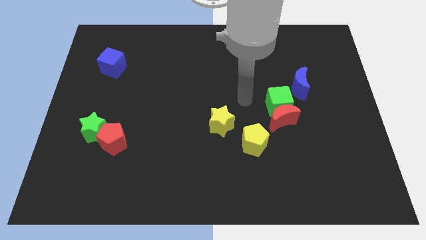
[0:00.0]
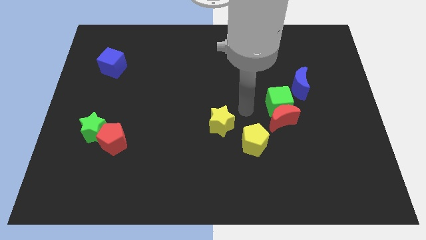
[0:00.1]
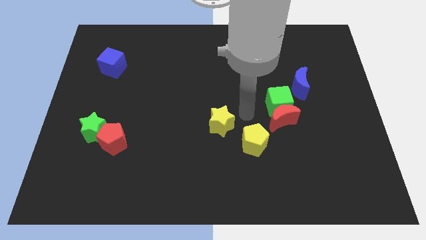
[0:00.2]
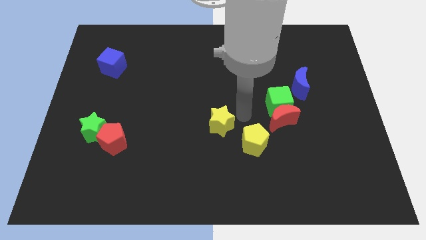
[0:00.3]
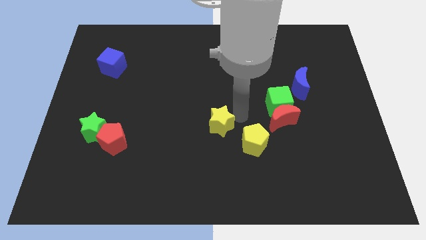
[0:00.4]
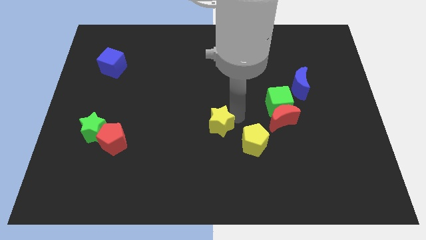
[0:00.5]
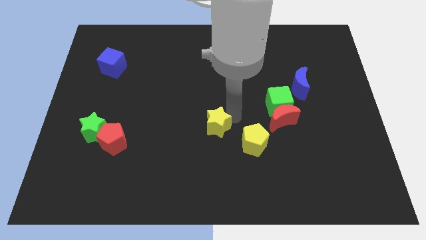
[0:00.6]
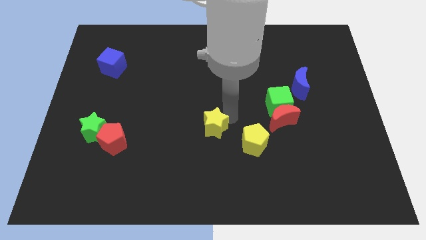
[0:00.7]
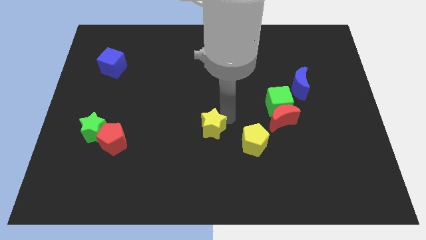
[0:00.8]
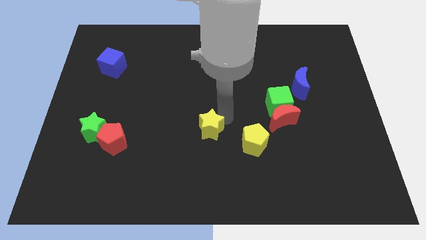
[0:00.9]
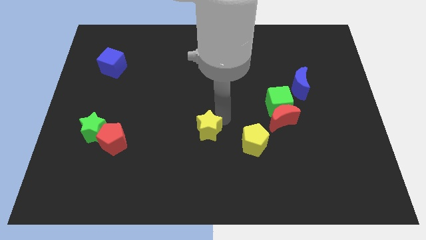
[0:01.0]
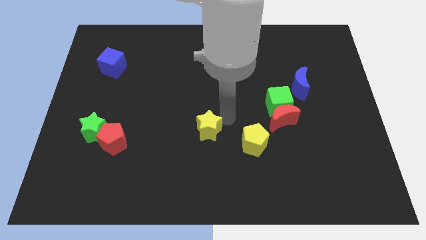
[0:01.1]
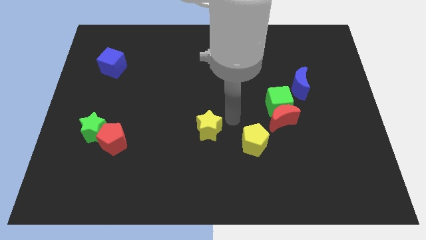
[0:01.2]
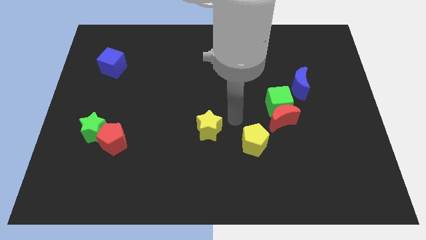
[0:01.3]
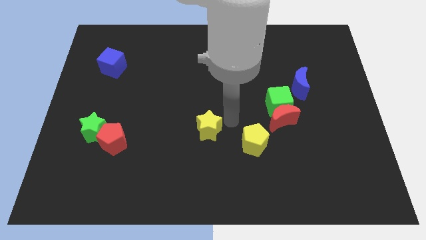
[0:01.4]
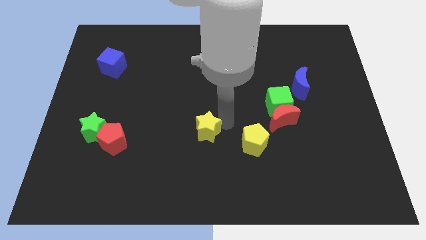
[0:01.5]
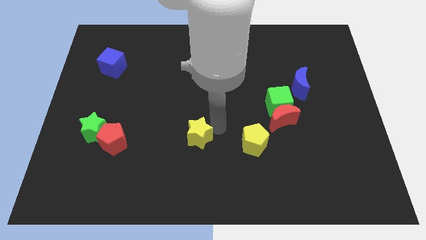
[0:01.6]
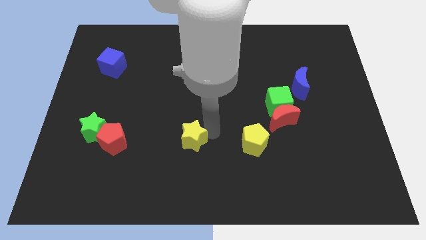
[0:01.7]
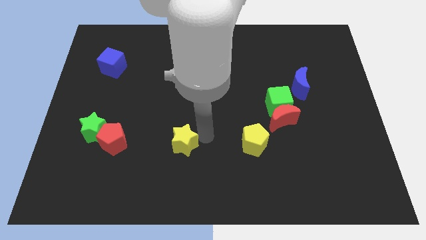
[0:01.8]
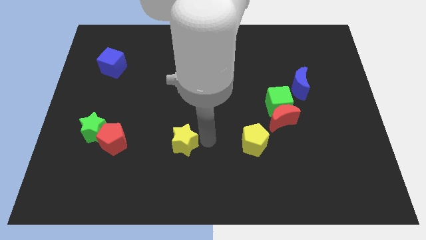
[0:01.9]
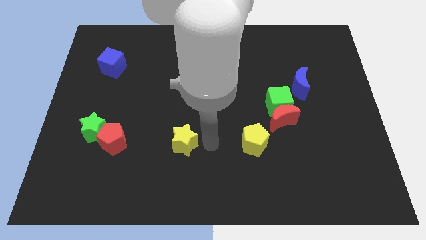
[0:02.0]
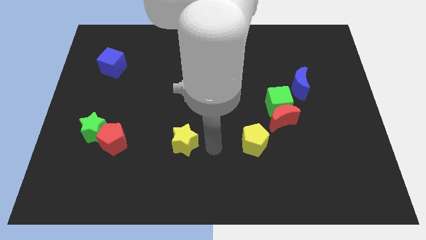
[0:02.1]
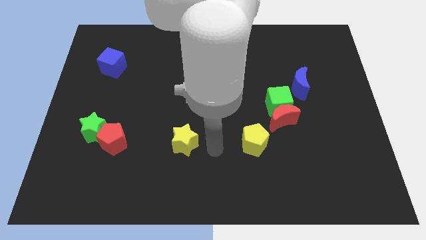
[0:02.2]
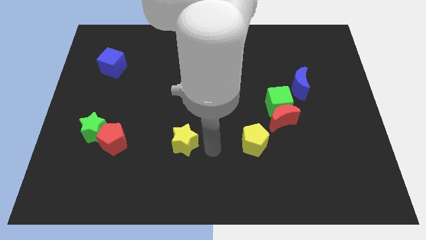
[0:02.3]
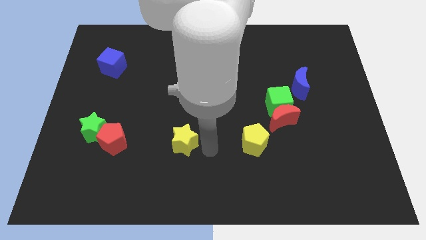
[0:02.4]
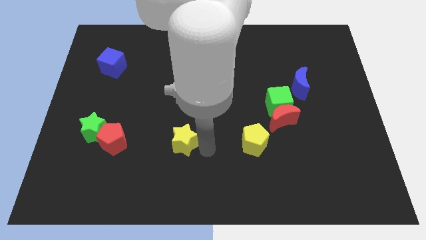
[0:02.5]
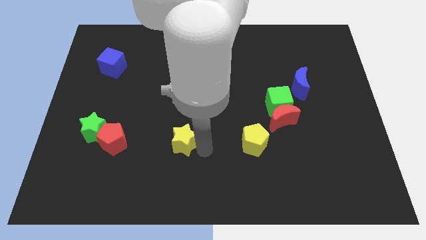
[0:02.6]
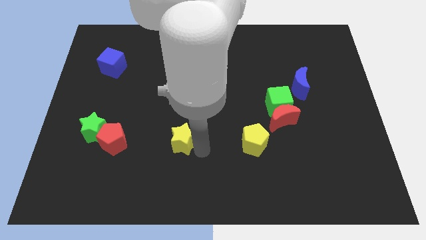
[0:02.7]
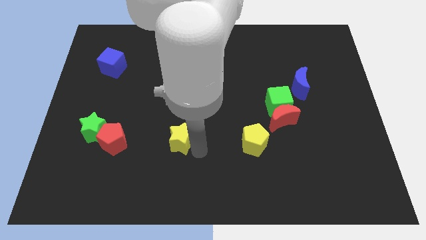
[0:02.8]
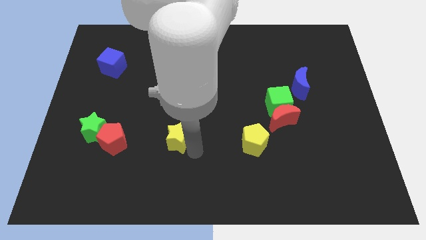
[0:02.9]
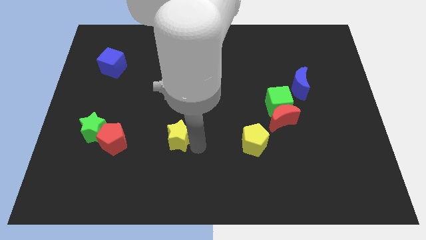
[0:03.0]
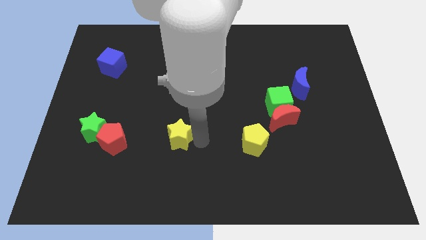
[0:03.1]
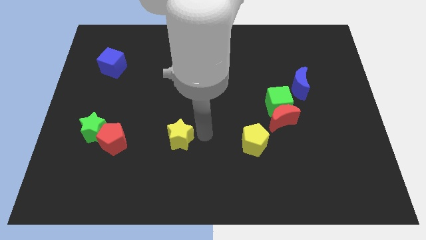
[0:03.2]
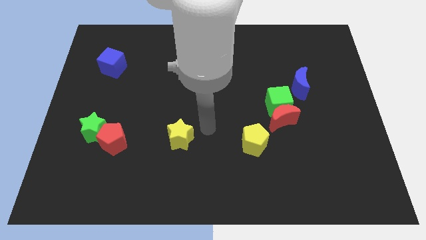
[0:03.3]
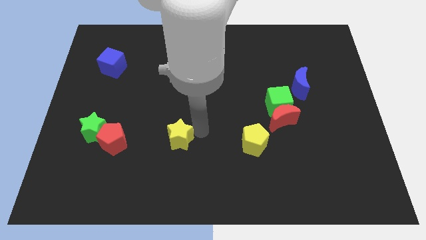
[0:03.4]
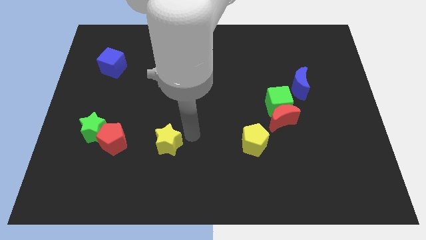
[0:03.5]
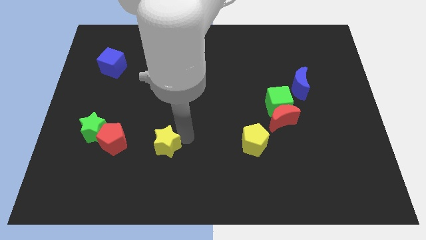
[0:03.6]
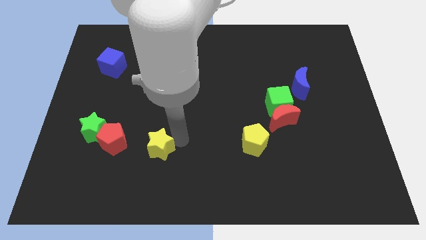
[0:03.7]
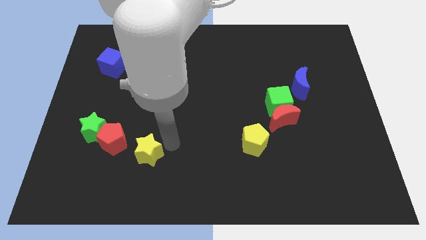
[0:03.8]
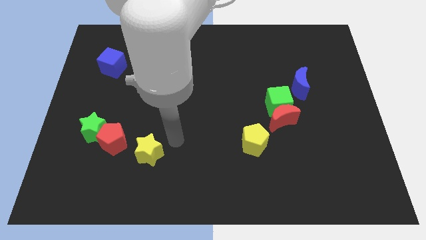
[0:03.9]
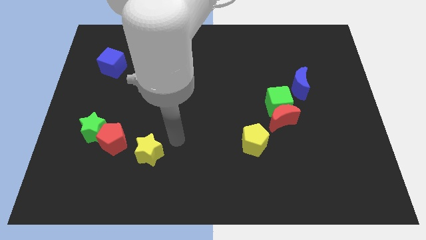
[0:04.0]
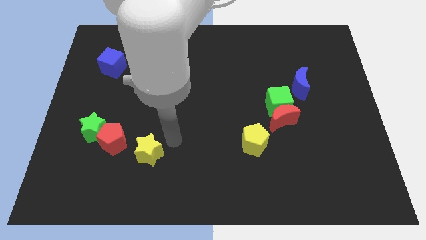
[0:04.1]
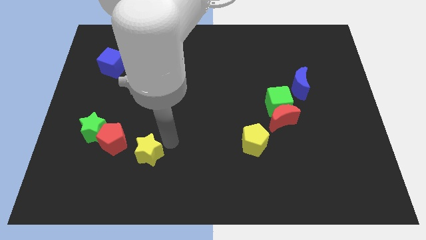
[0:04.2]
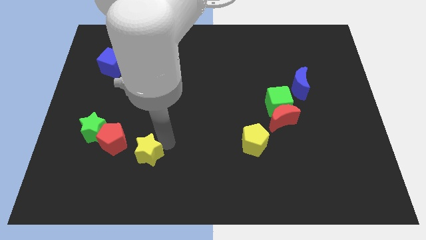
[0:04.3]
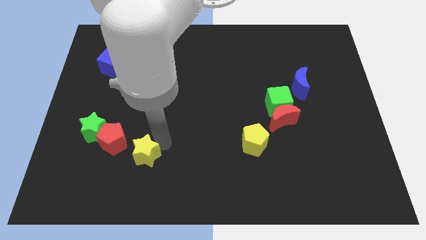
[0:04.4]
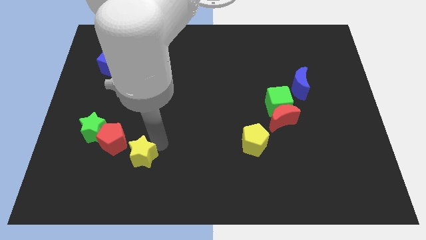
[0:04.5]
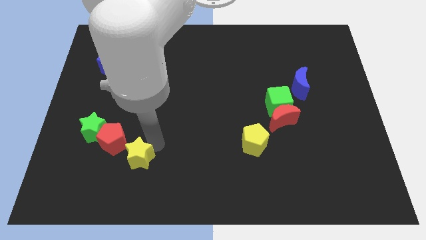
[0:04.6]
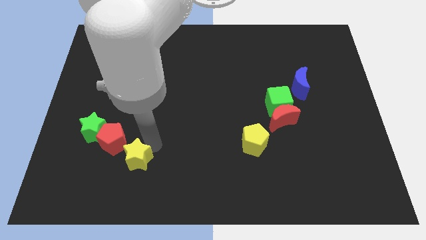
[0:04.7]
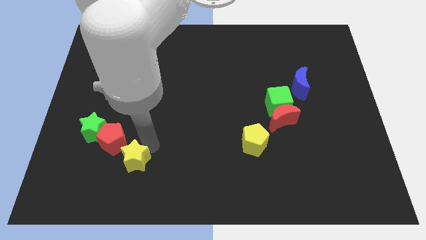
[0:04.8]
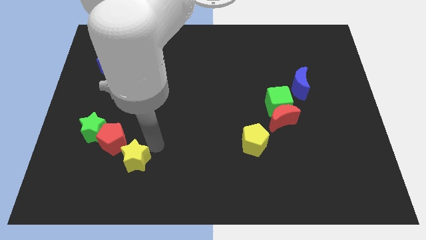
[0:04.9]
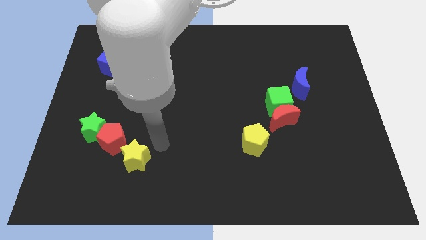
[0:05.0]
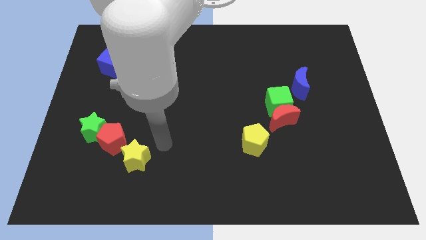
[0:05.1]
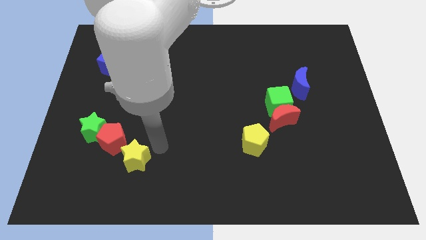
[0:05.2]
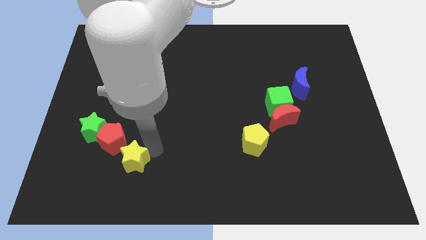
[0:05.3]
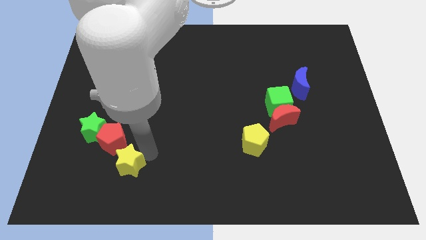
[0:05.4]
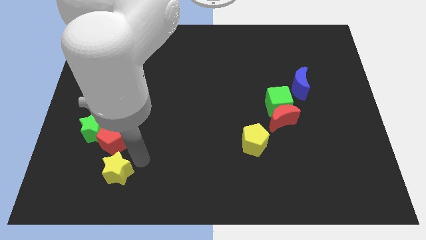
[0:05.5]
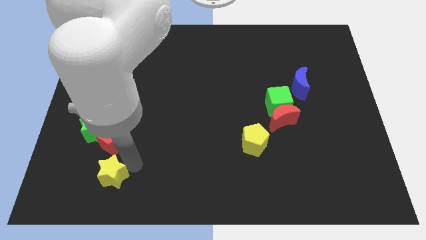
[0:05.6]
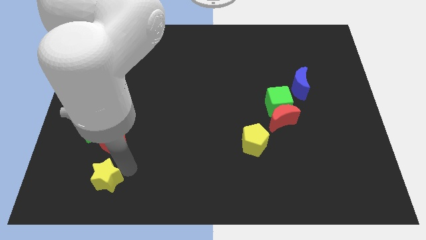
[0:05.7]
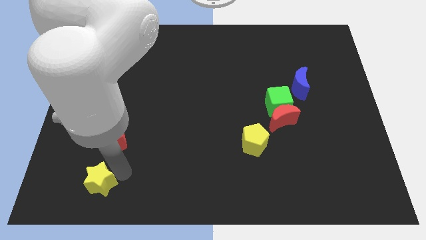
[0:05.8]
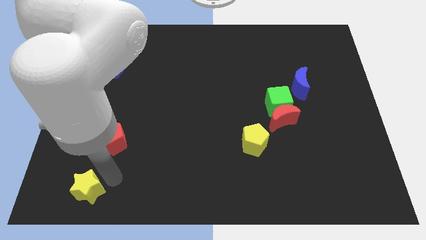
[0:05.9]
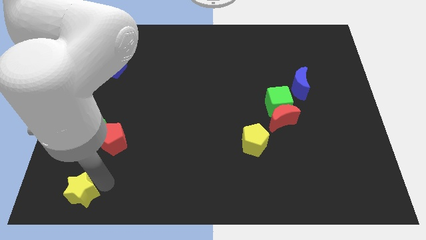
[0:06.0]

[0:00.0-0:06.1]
slide the yellow star to the bottom left
